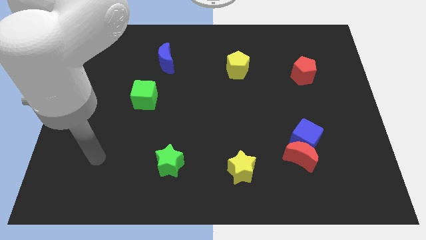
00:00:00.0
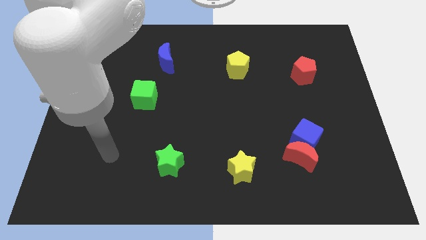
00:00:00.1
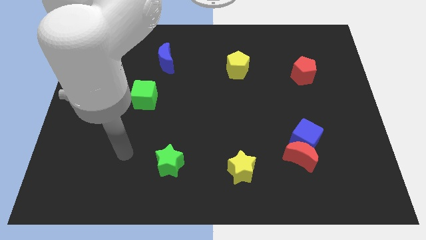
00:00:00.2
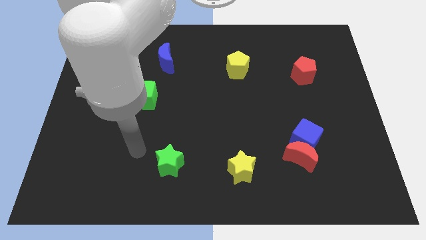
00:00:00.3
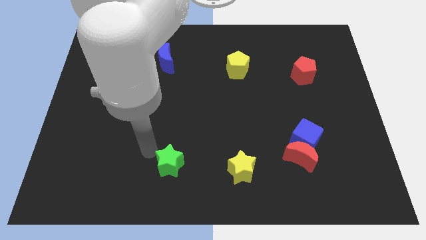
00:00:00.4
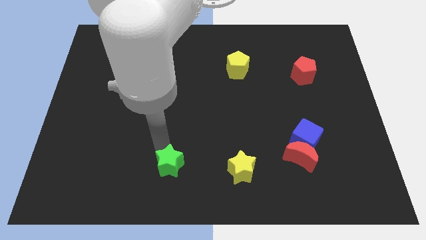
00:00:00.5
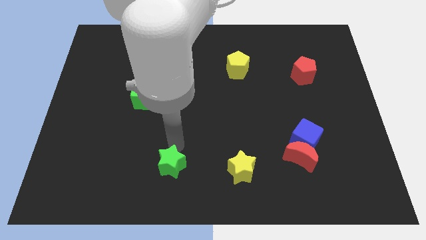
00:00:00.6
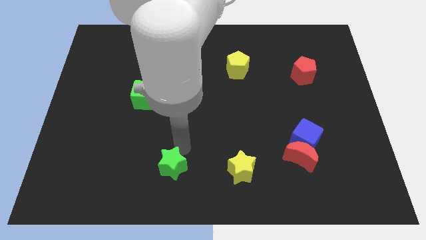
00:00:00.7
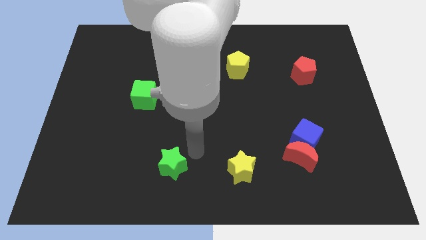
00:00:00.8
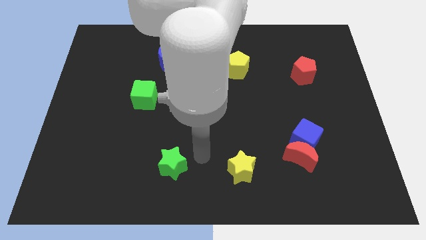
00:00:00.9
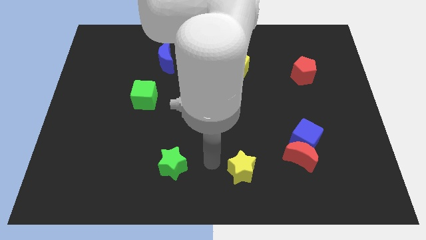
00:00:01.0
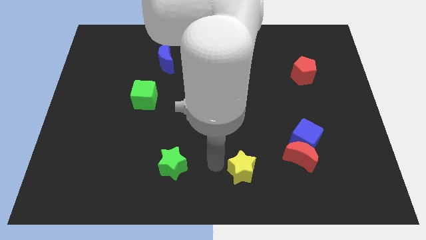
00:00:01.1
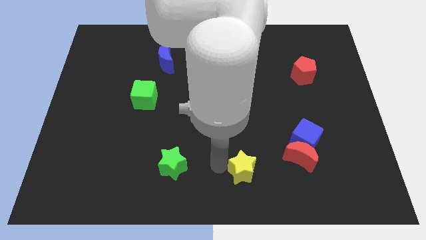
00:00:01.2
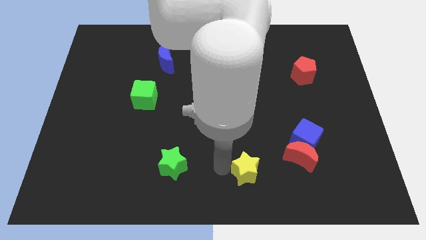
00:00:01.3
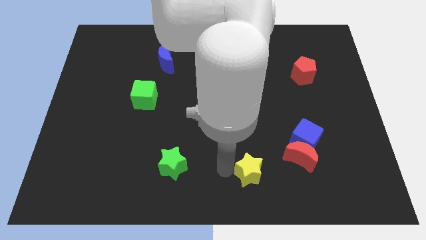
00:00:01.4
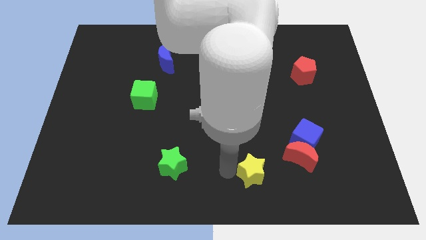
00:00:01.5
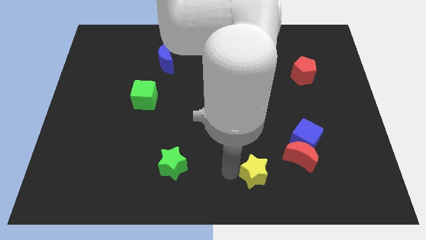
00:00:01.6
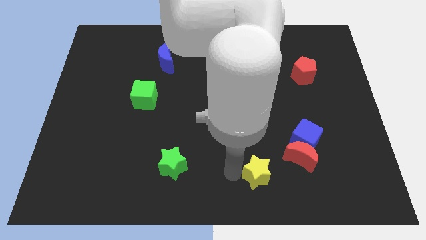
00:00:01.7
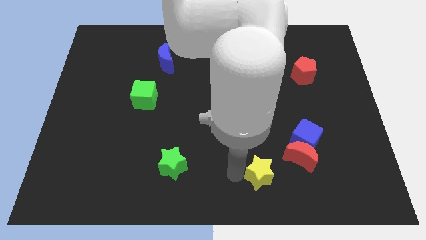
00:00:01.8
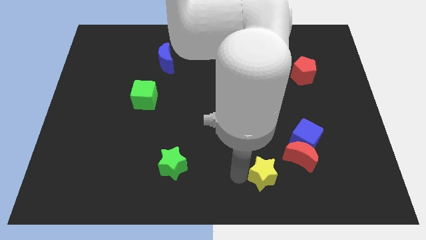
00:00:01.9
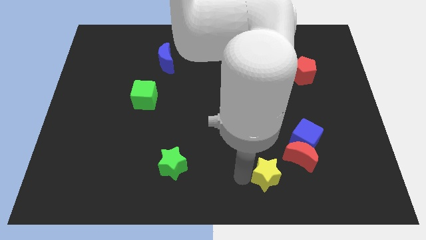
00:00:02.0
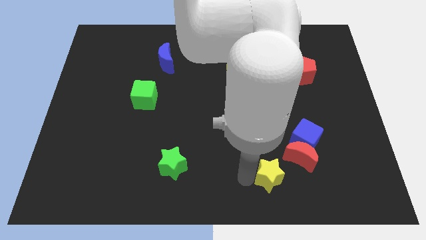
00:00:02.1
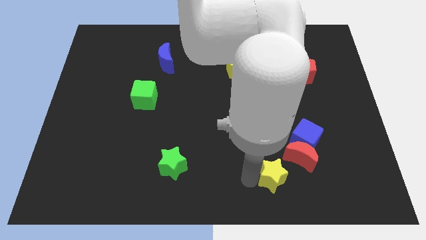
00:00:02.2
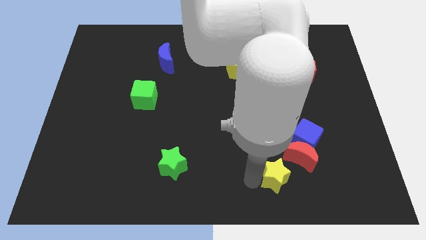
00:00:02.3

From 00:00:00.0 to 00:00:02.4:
push the yellow star a little bit to the right

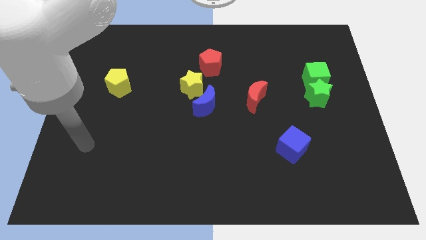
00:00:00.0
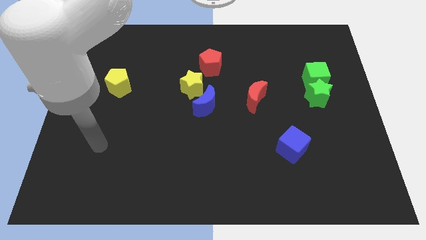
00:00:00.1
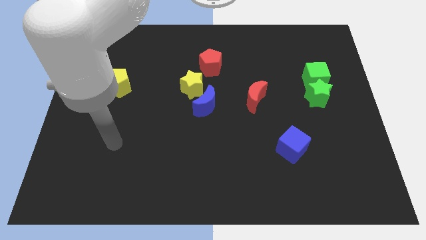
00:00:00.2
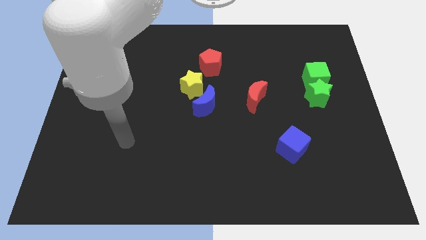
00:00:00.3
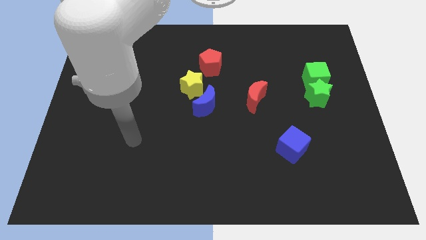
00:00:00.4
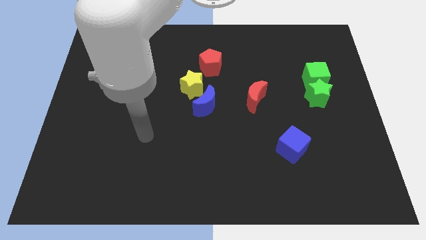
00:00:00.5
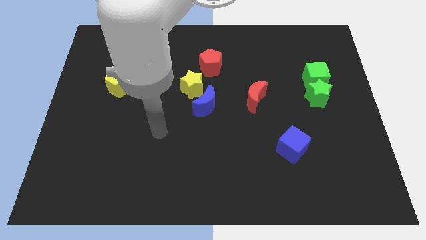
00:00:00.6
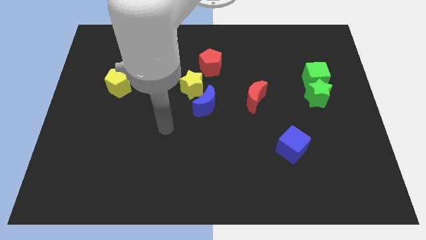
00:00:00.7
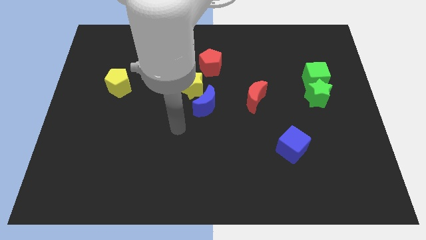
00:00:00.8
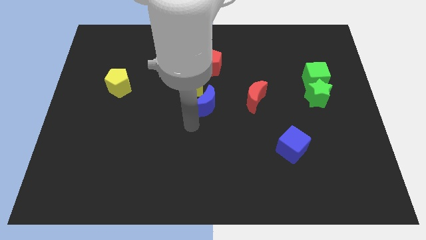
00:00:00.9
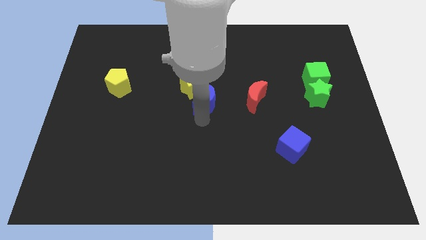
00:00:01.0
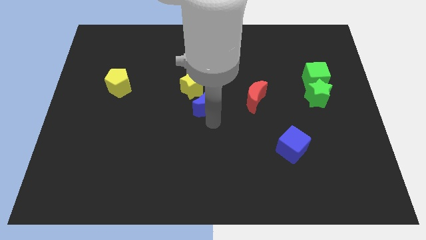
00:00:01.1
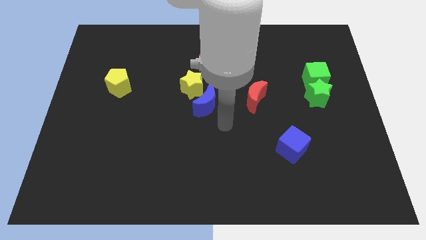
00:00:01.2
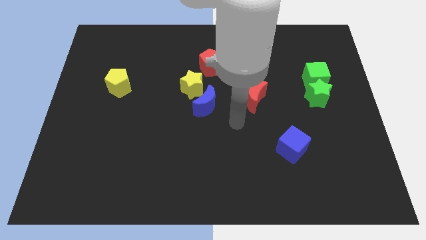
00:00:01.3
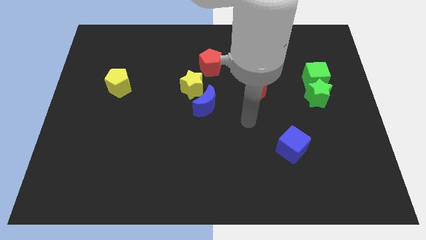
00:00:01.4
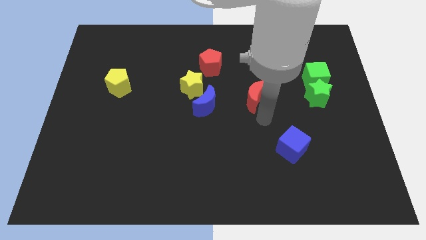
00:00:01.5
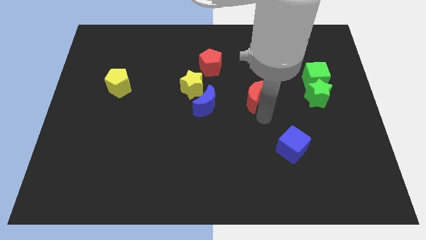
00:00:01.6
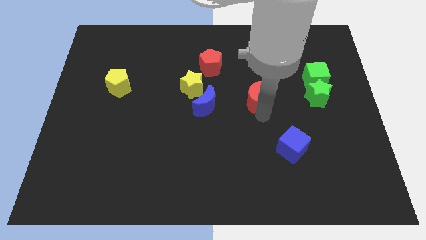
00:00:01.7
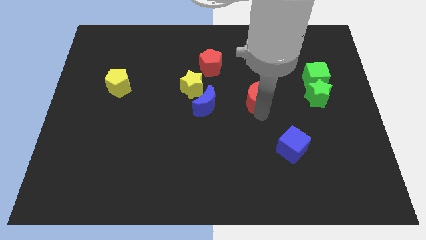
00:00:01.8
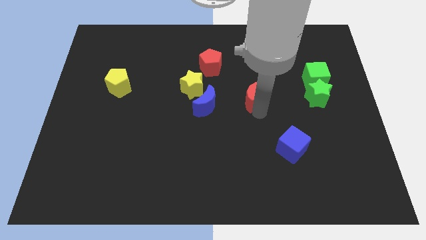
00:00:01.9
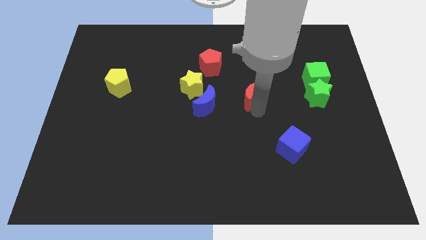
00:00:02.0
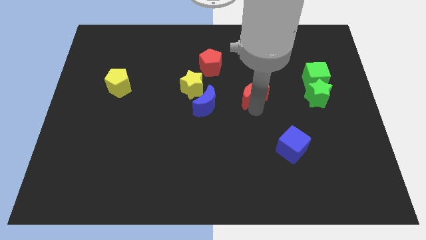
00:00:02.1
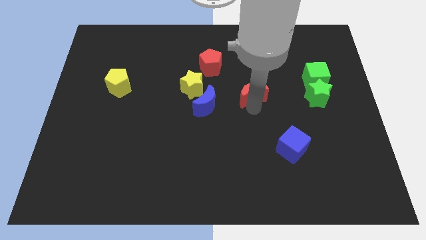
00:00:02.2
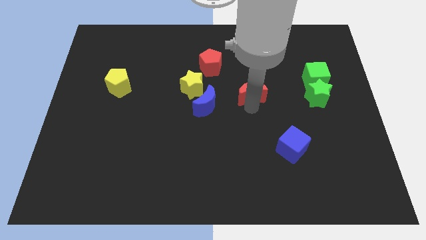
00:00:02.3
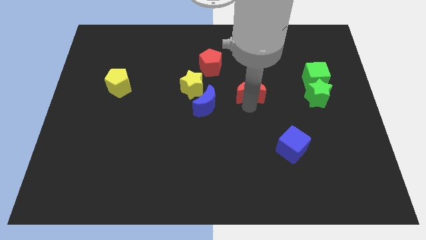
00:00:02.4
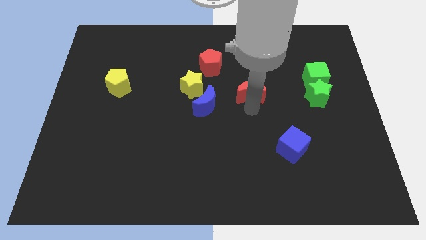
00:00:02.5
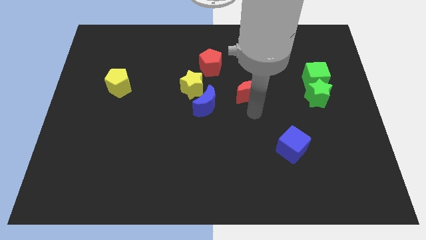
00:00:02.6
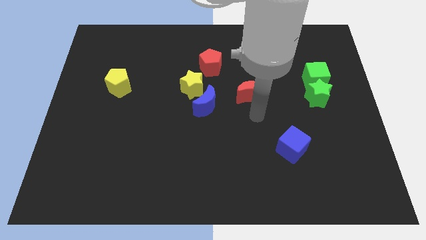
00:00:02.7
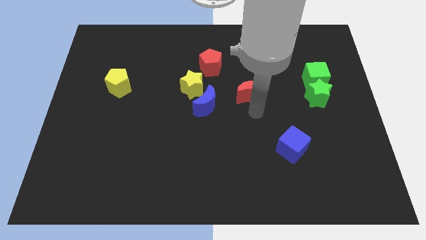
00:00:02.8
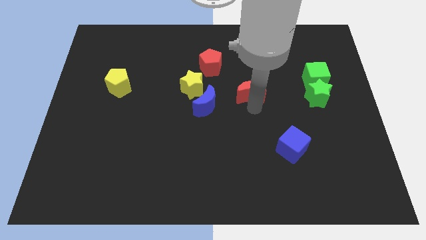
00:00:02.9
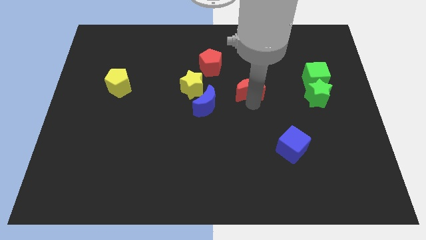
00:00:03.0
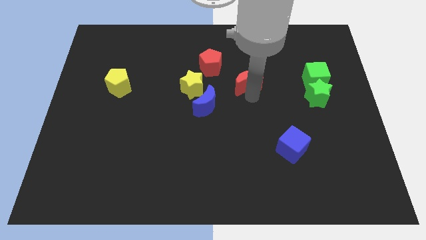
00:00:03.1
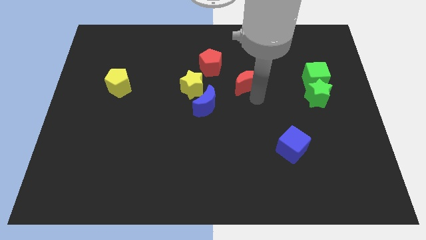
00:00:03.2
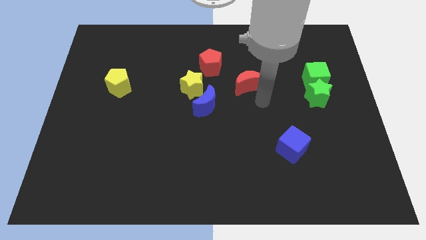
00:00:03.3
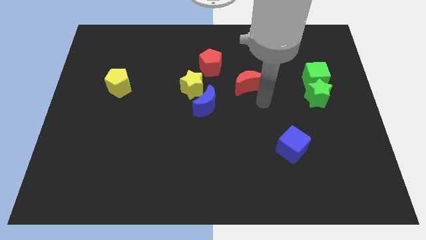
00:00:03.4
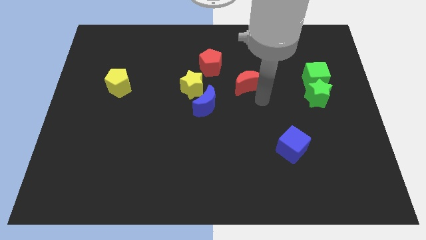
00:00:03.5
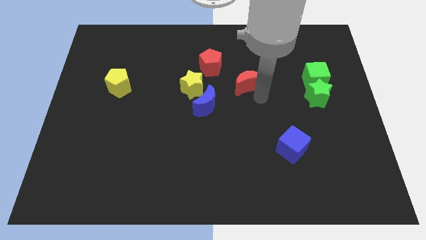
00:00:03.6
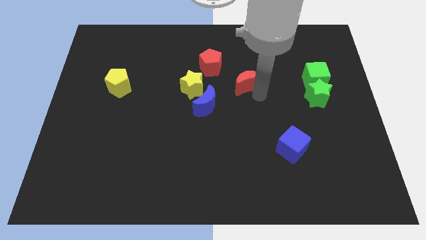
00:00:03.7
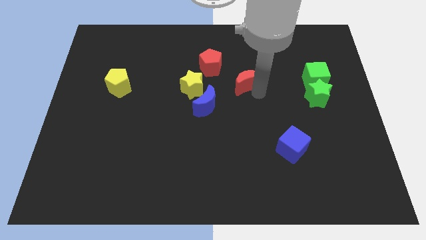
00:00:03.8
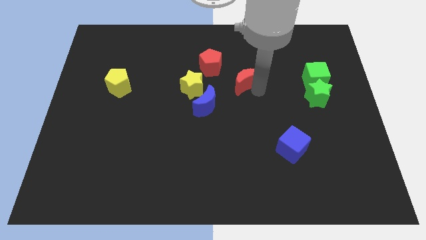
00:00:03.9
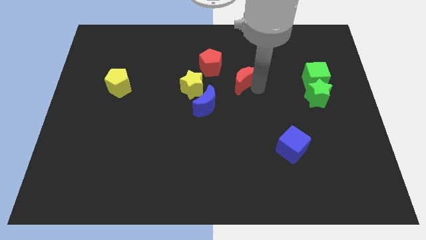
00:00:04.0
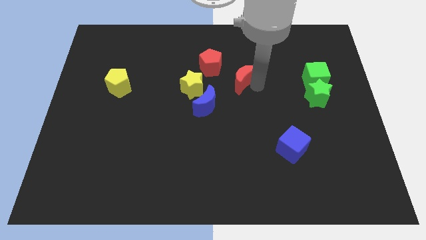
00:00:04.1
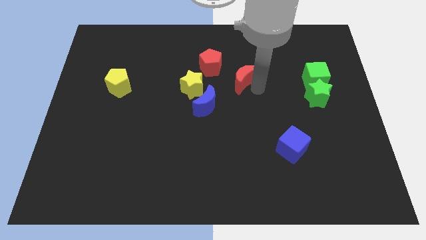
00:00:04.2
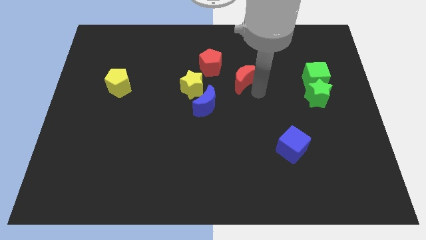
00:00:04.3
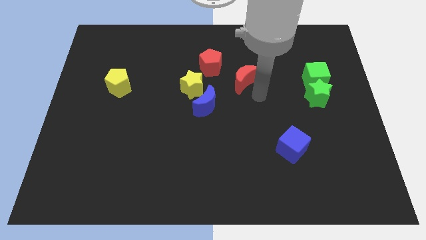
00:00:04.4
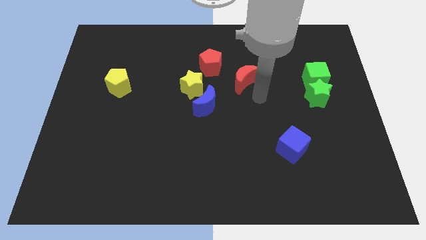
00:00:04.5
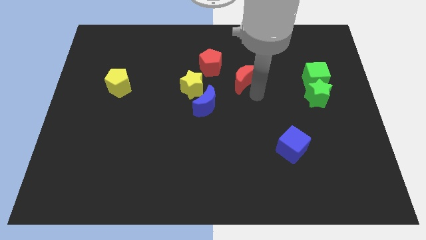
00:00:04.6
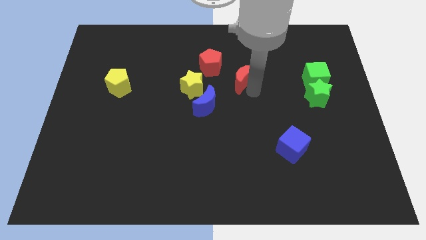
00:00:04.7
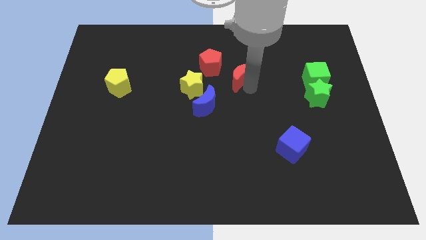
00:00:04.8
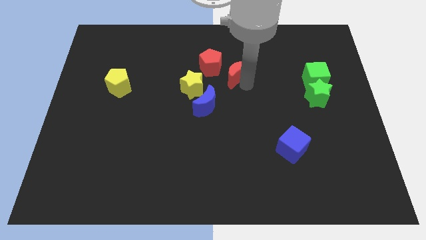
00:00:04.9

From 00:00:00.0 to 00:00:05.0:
slightly move the red moon upwards and then left

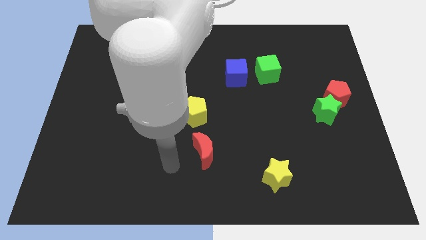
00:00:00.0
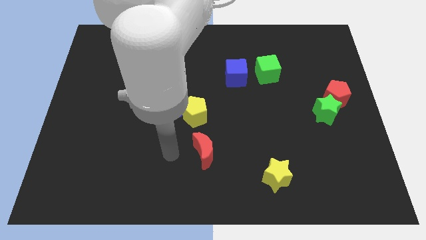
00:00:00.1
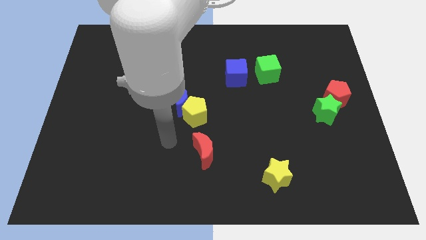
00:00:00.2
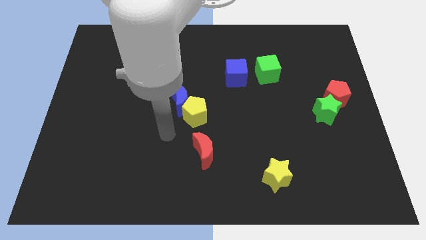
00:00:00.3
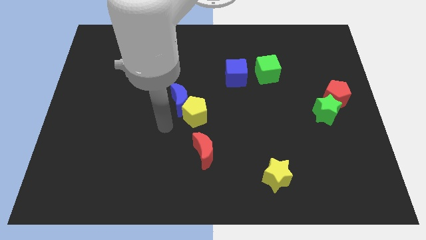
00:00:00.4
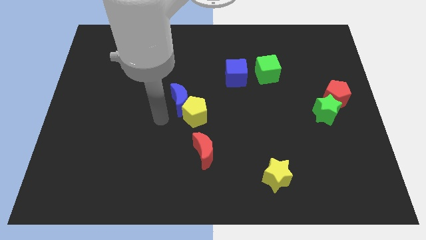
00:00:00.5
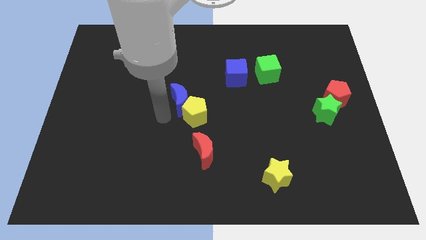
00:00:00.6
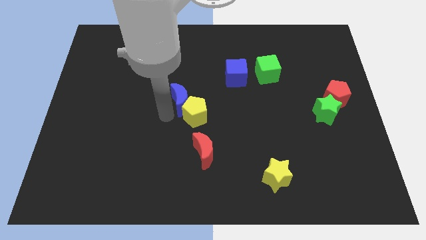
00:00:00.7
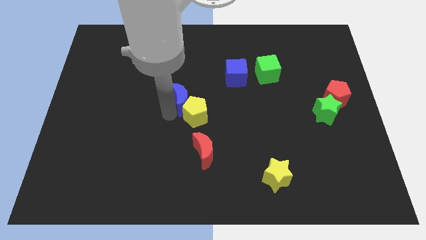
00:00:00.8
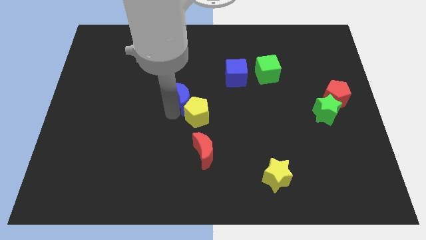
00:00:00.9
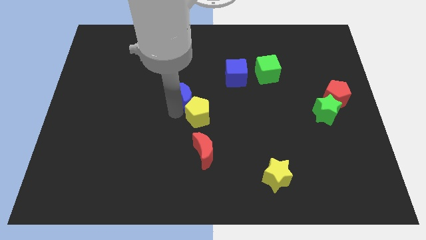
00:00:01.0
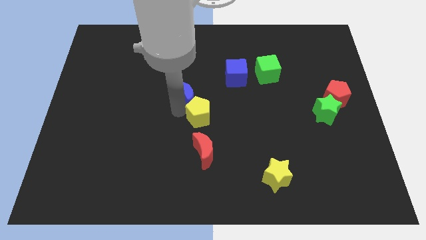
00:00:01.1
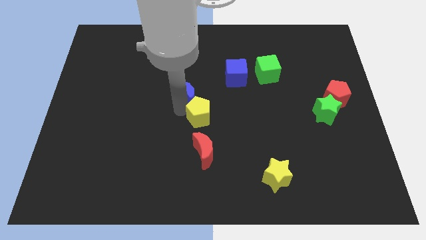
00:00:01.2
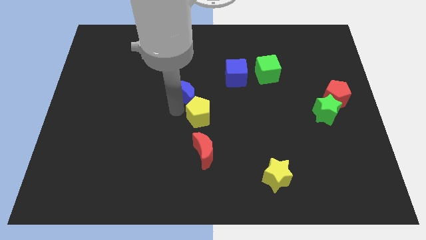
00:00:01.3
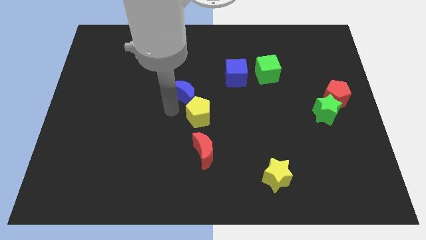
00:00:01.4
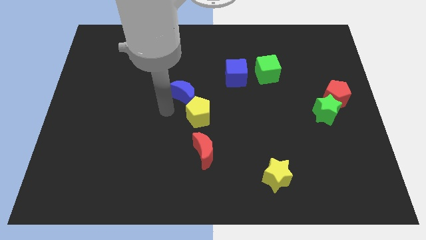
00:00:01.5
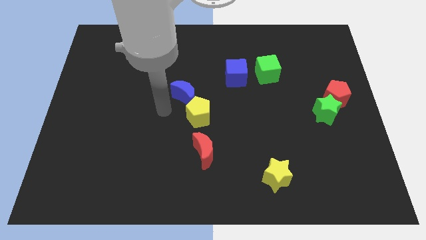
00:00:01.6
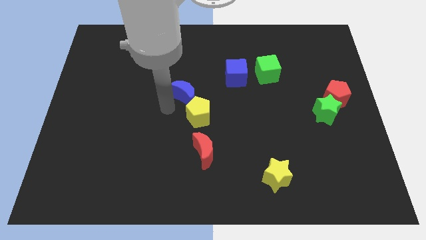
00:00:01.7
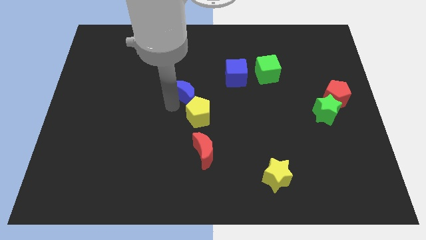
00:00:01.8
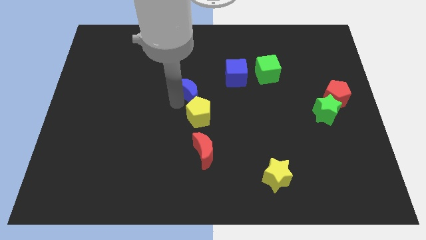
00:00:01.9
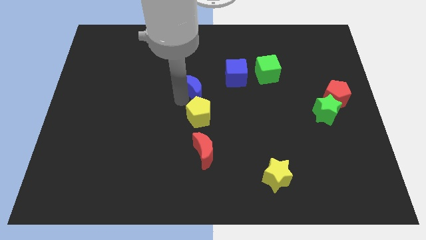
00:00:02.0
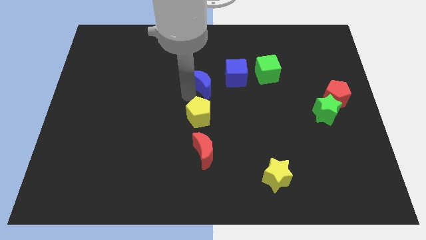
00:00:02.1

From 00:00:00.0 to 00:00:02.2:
push the blue moon slightly up and then right
